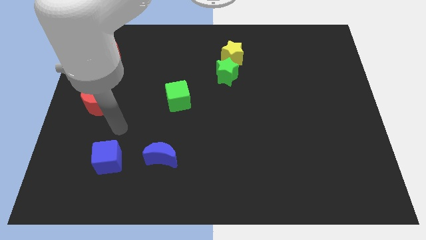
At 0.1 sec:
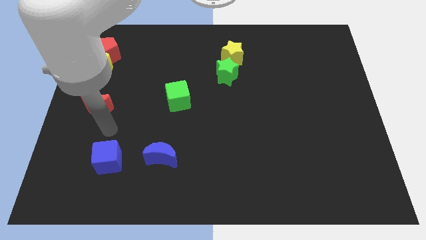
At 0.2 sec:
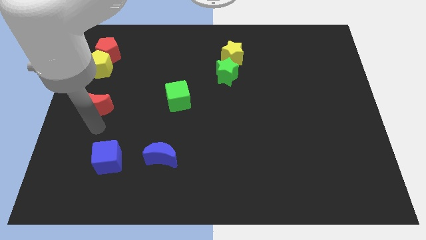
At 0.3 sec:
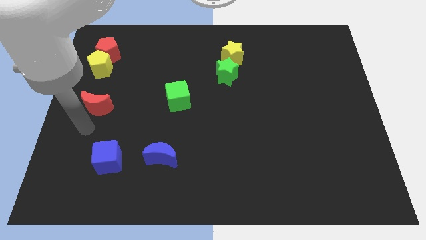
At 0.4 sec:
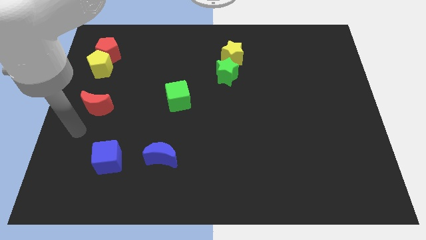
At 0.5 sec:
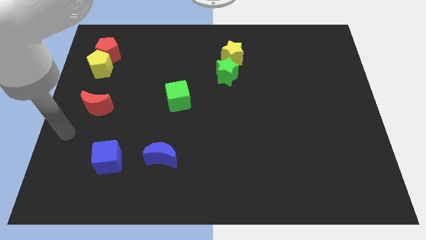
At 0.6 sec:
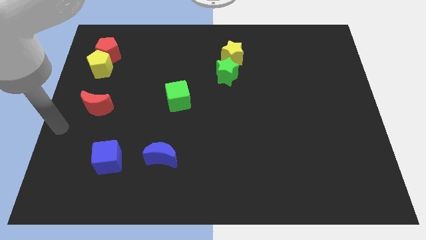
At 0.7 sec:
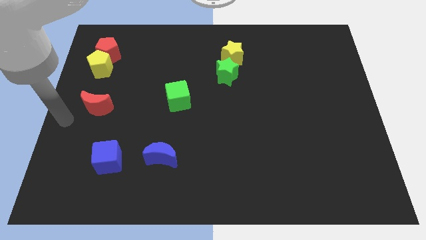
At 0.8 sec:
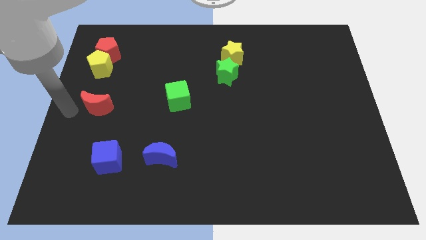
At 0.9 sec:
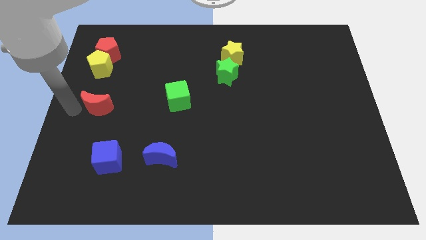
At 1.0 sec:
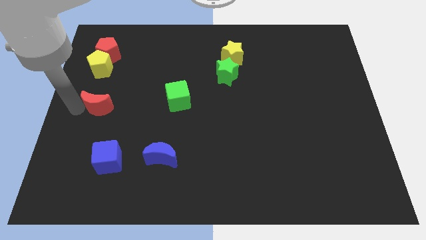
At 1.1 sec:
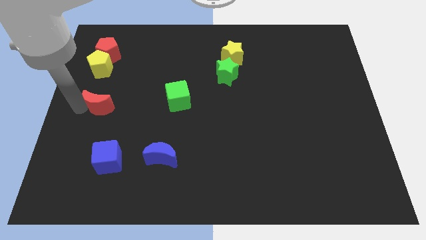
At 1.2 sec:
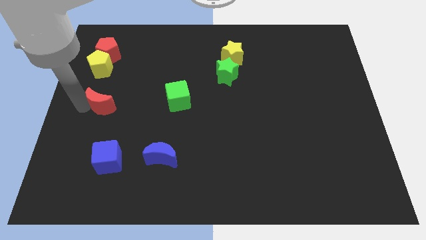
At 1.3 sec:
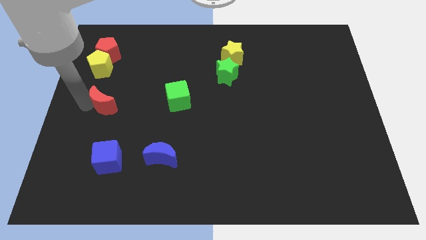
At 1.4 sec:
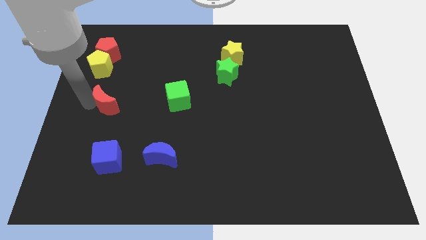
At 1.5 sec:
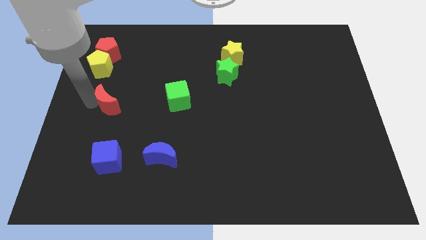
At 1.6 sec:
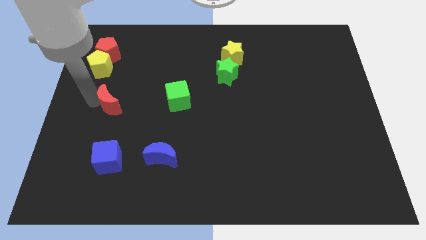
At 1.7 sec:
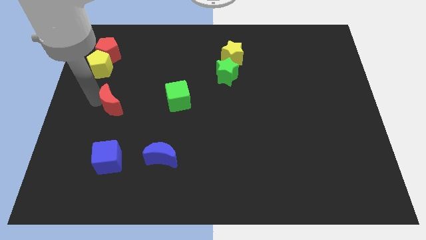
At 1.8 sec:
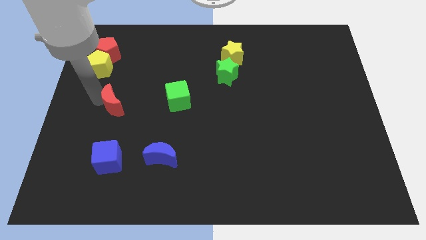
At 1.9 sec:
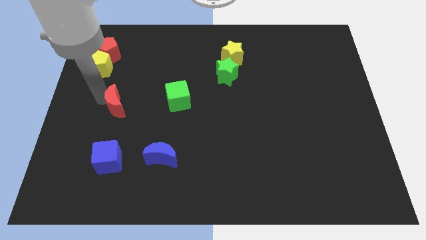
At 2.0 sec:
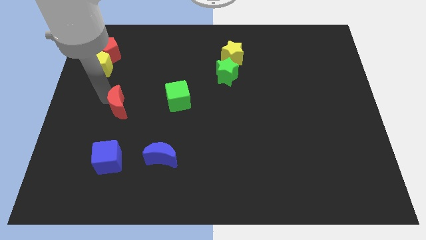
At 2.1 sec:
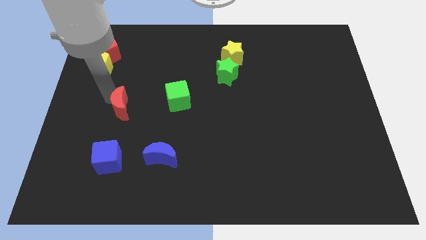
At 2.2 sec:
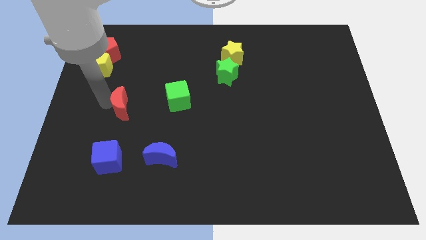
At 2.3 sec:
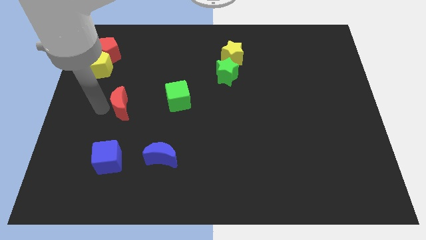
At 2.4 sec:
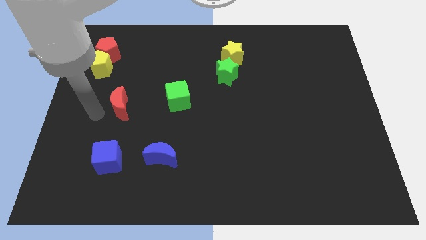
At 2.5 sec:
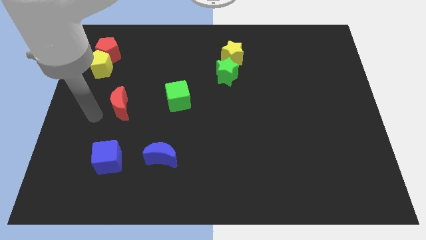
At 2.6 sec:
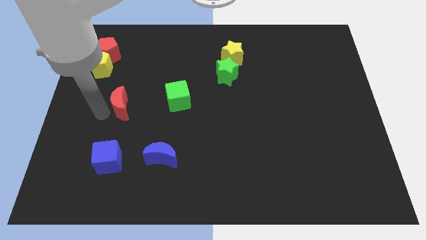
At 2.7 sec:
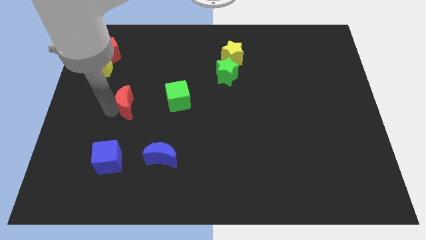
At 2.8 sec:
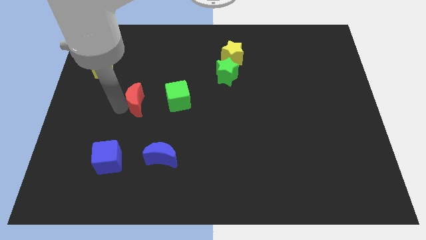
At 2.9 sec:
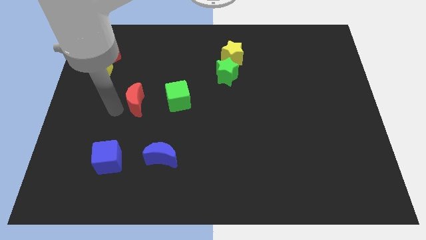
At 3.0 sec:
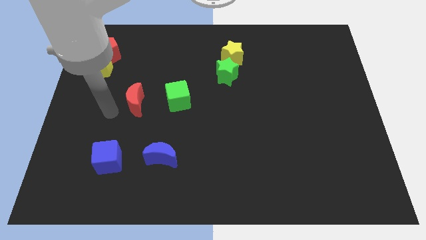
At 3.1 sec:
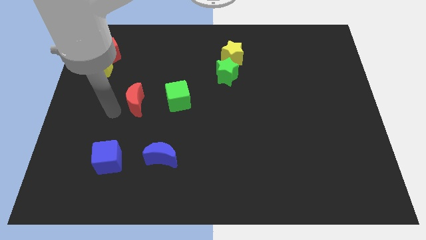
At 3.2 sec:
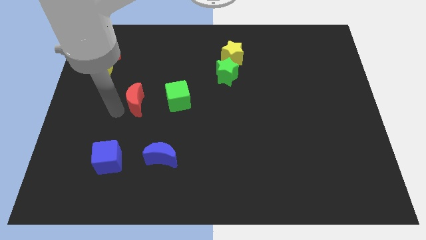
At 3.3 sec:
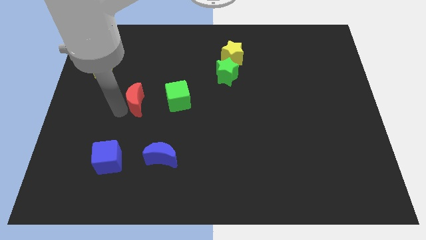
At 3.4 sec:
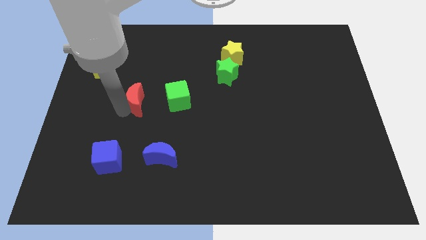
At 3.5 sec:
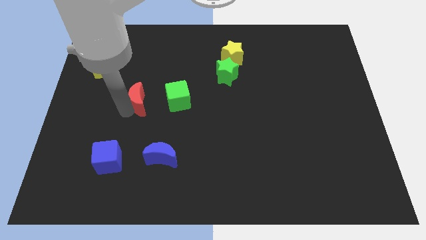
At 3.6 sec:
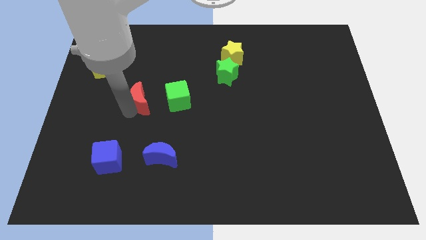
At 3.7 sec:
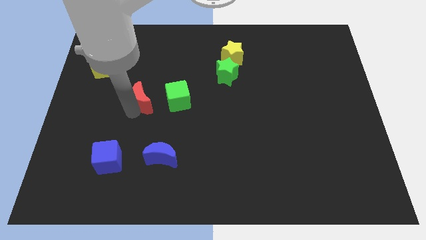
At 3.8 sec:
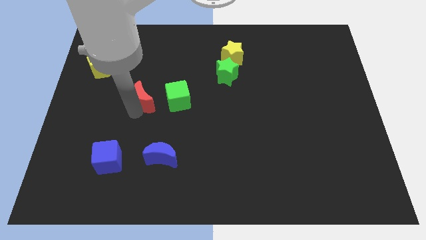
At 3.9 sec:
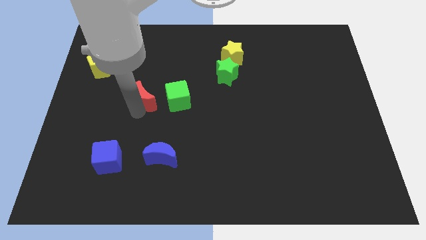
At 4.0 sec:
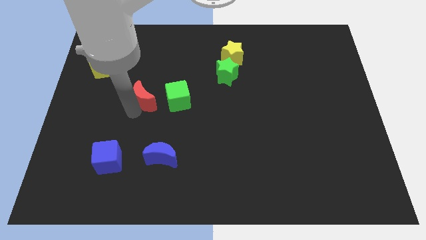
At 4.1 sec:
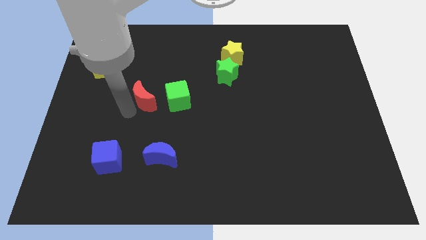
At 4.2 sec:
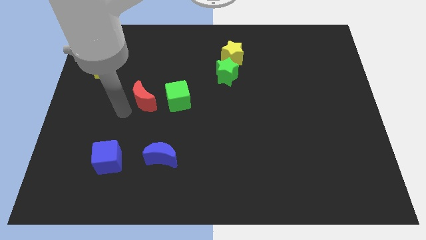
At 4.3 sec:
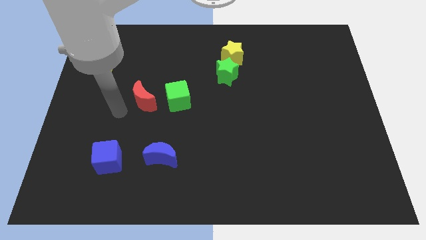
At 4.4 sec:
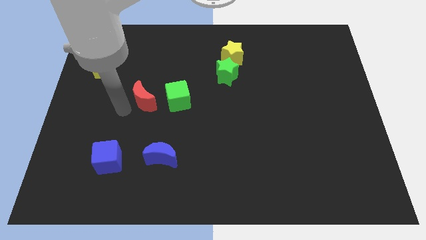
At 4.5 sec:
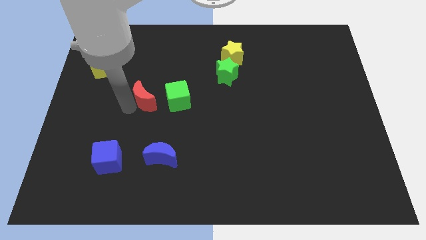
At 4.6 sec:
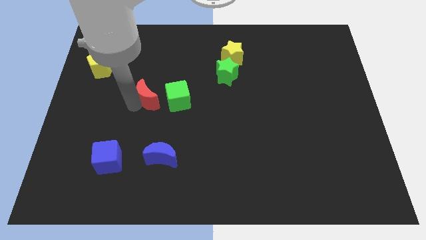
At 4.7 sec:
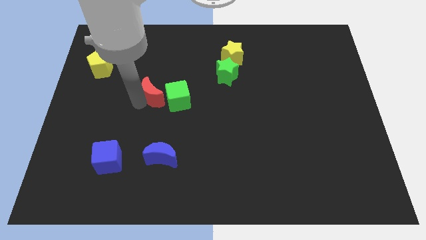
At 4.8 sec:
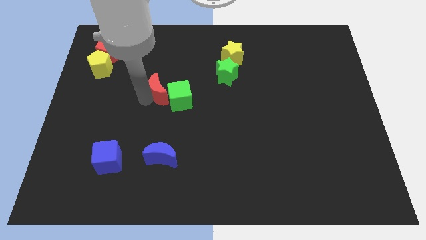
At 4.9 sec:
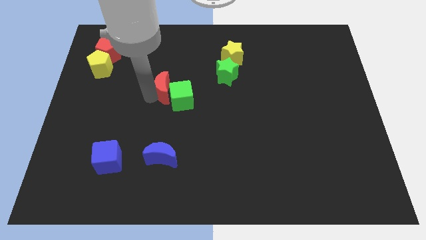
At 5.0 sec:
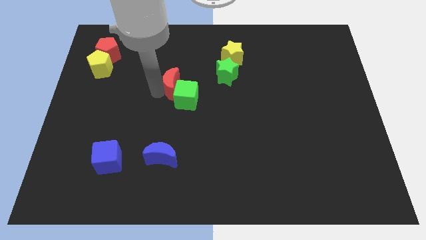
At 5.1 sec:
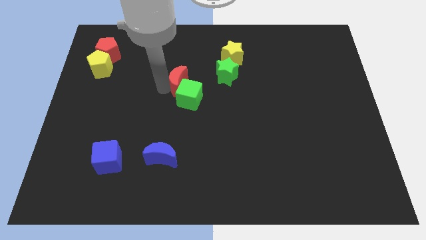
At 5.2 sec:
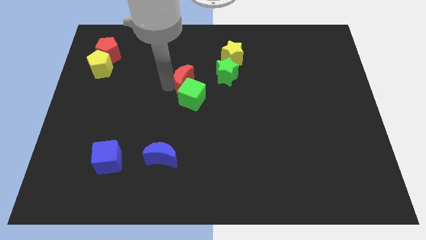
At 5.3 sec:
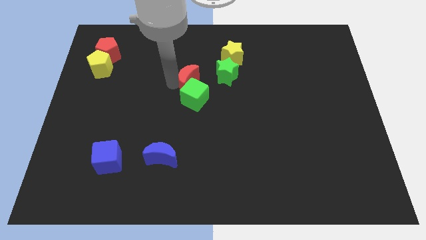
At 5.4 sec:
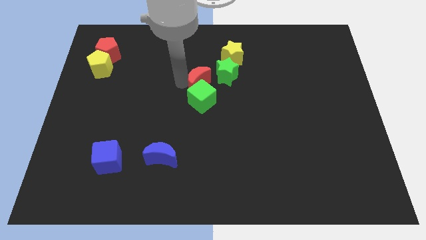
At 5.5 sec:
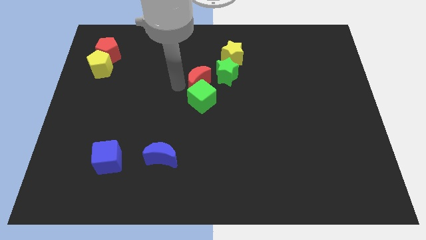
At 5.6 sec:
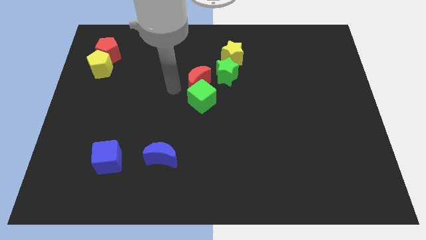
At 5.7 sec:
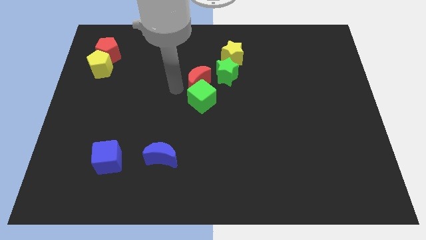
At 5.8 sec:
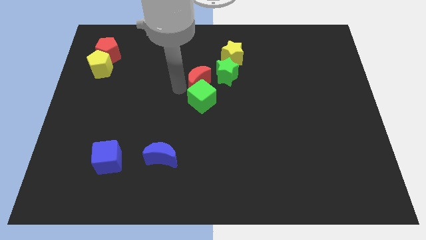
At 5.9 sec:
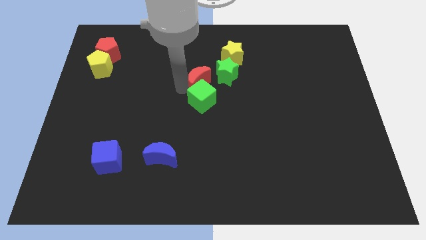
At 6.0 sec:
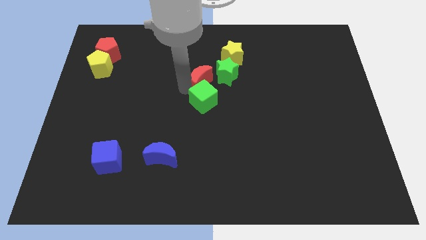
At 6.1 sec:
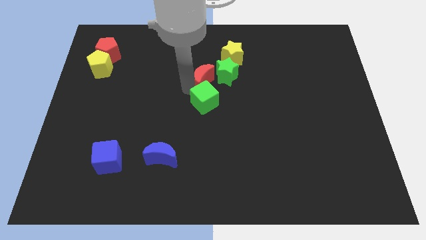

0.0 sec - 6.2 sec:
move the red moon close to the green star

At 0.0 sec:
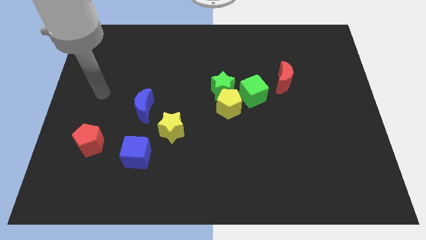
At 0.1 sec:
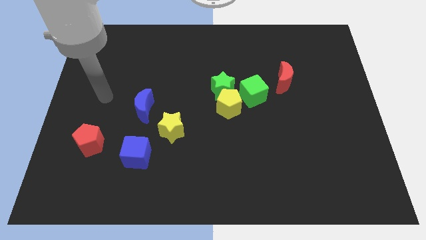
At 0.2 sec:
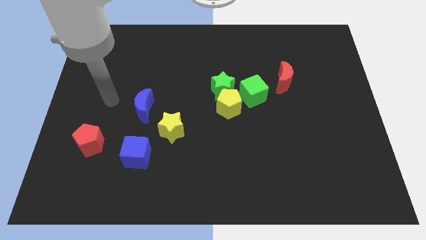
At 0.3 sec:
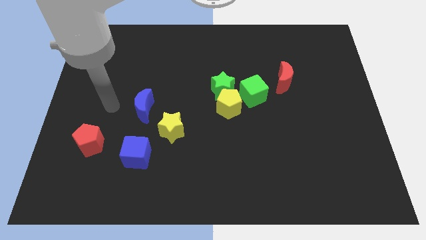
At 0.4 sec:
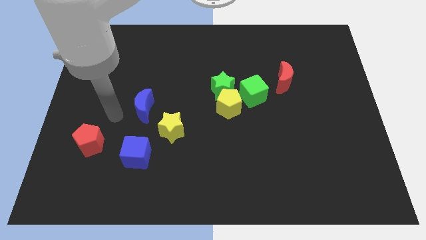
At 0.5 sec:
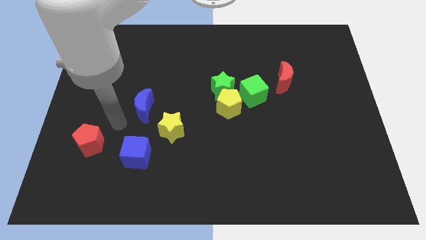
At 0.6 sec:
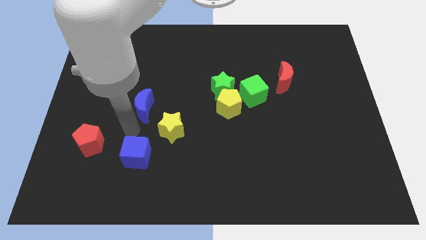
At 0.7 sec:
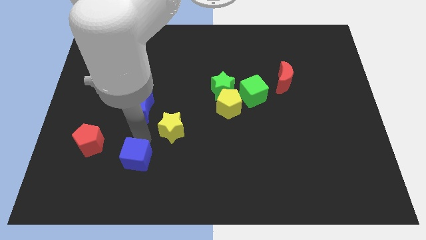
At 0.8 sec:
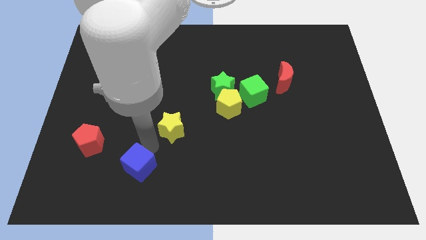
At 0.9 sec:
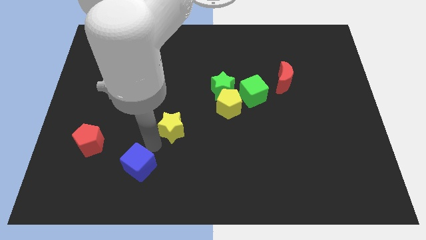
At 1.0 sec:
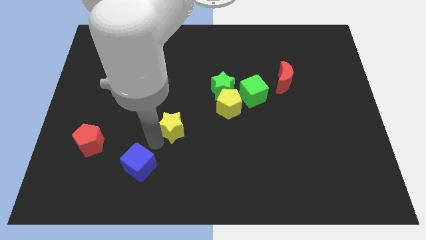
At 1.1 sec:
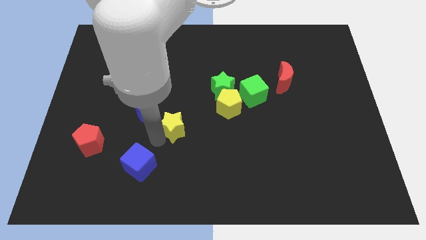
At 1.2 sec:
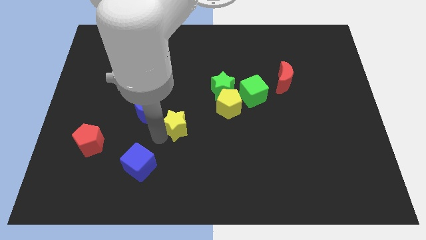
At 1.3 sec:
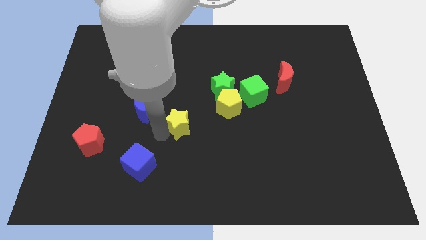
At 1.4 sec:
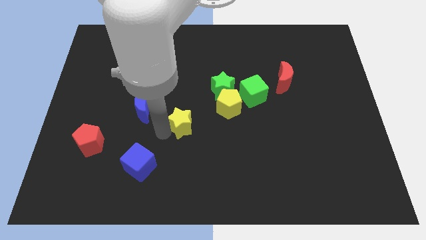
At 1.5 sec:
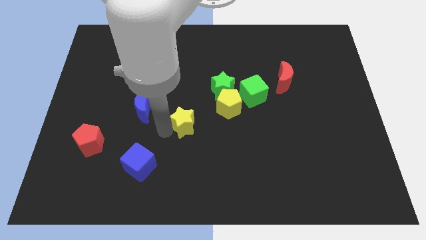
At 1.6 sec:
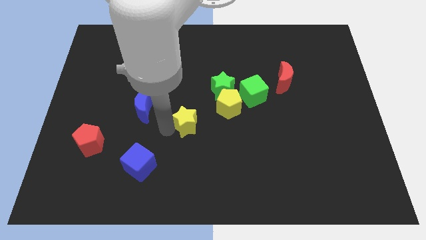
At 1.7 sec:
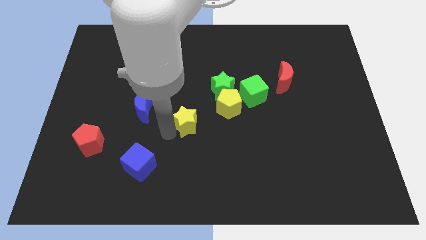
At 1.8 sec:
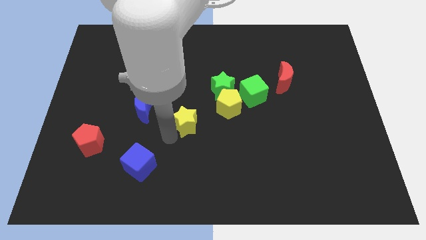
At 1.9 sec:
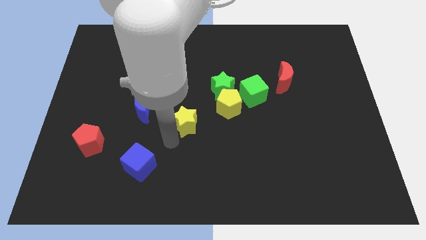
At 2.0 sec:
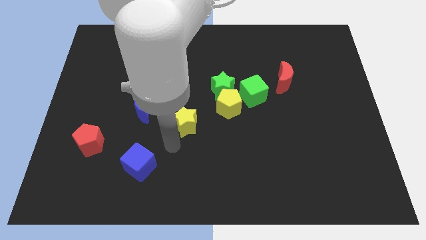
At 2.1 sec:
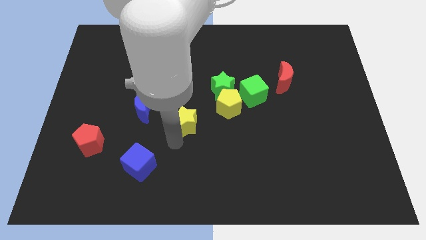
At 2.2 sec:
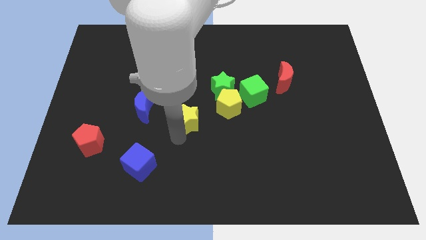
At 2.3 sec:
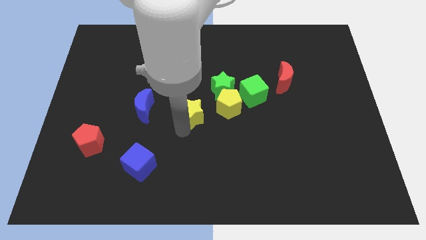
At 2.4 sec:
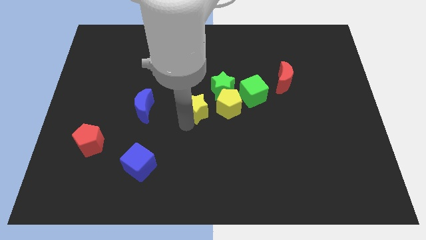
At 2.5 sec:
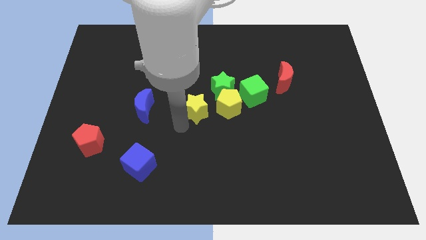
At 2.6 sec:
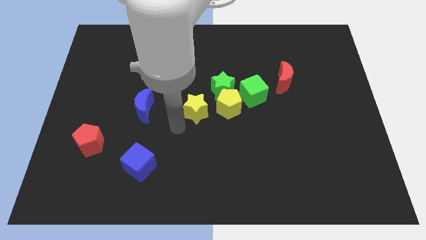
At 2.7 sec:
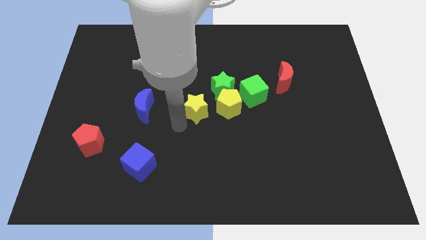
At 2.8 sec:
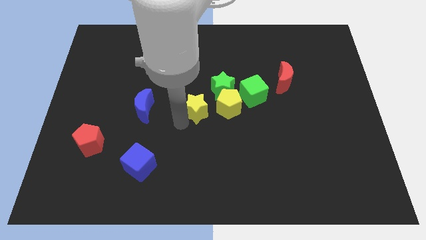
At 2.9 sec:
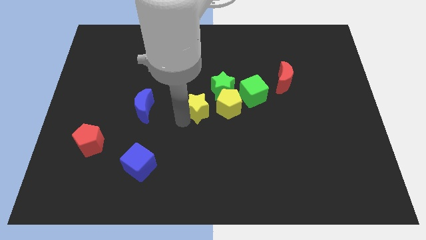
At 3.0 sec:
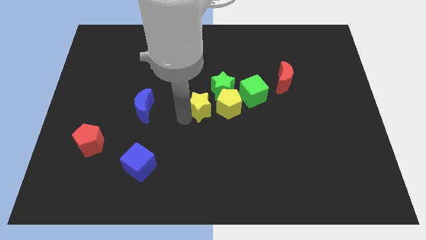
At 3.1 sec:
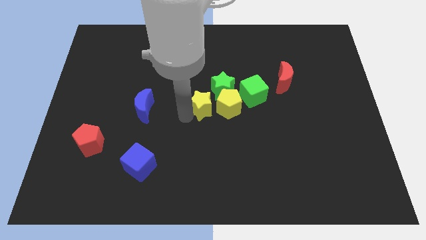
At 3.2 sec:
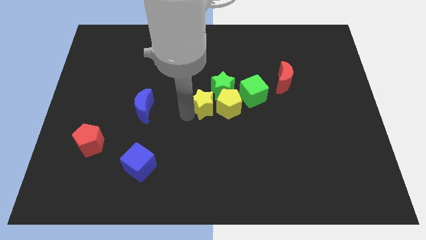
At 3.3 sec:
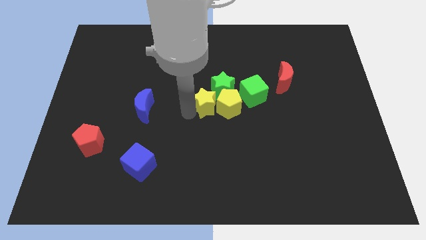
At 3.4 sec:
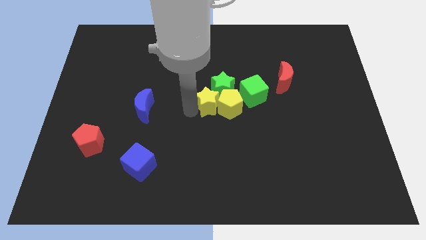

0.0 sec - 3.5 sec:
push the yellow star close to the green star
